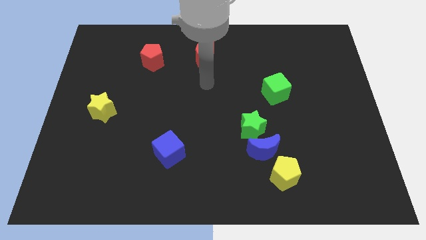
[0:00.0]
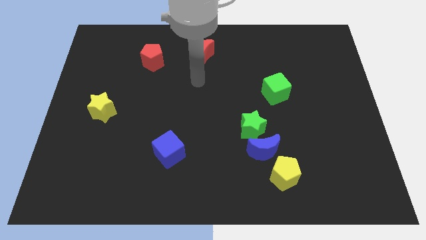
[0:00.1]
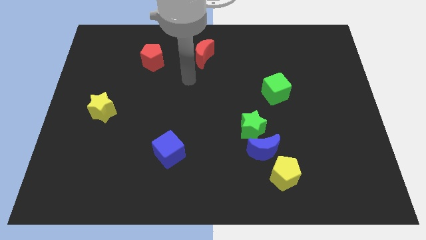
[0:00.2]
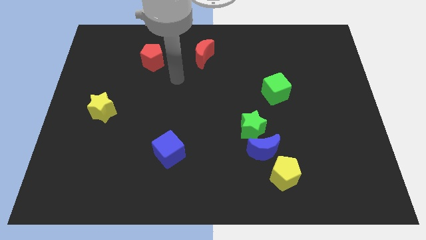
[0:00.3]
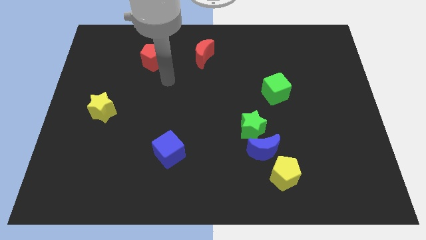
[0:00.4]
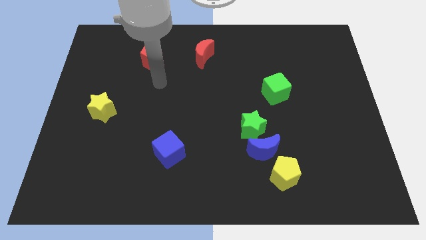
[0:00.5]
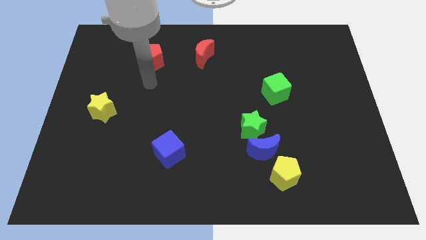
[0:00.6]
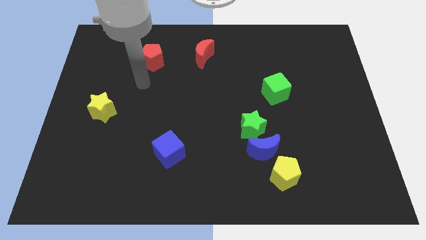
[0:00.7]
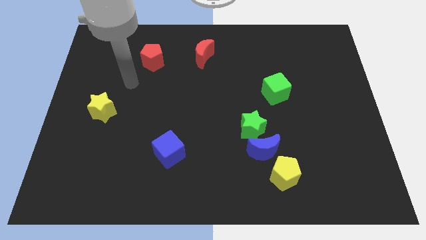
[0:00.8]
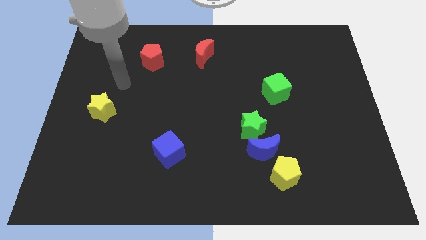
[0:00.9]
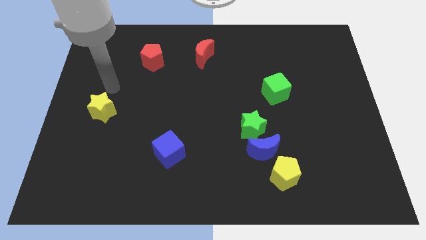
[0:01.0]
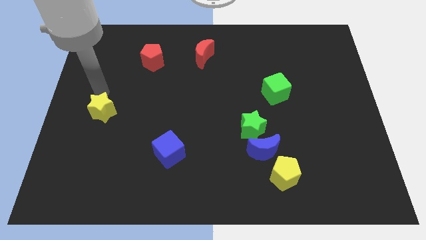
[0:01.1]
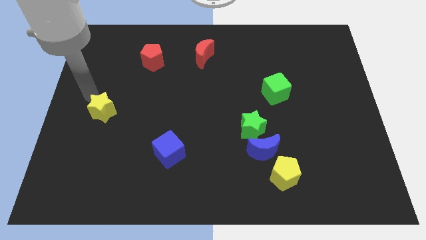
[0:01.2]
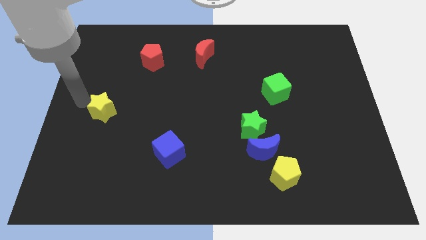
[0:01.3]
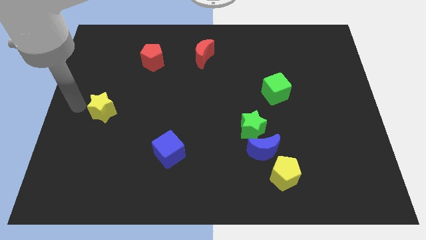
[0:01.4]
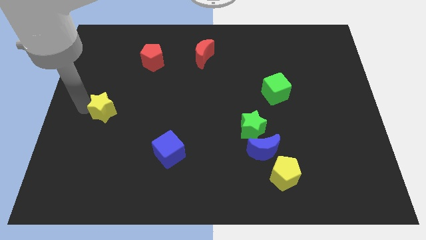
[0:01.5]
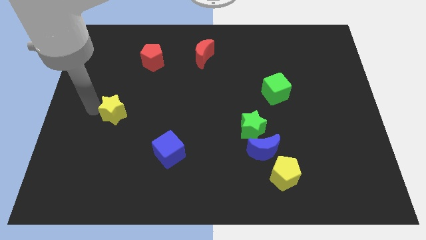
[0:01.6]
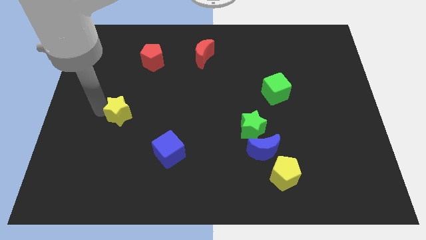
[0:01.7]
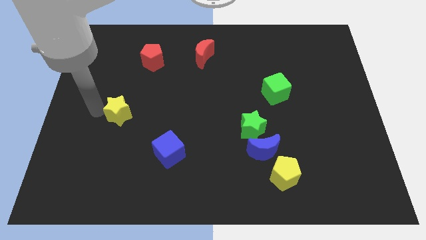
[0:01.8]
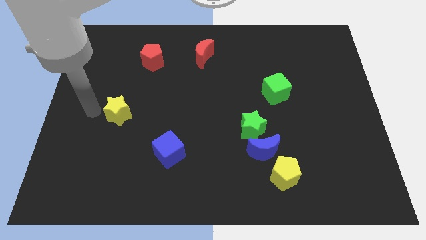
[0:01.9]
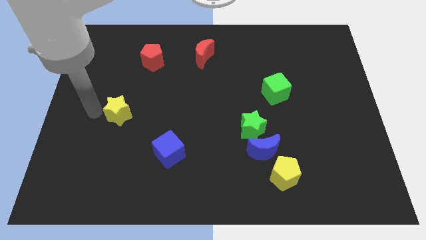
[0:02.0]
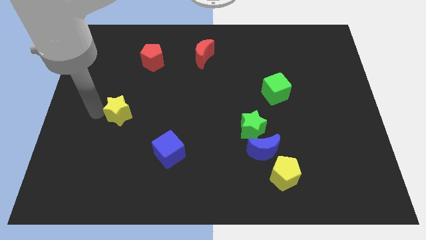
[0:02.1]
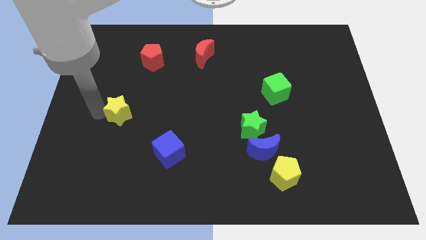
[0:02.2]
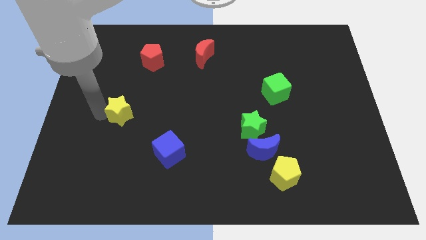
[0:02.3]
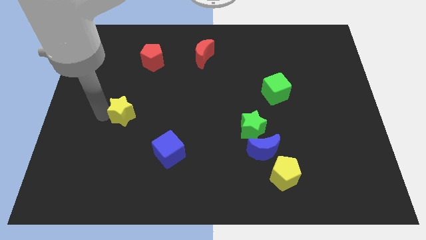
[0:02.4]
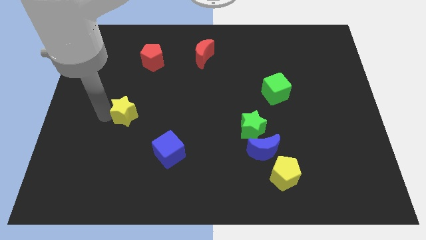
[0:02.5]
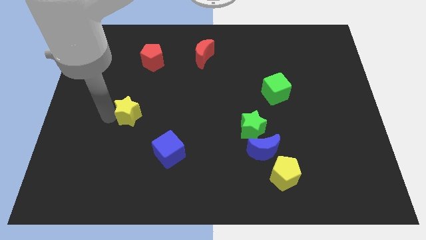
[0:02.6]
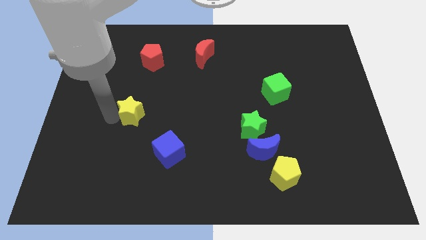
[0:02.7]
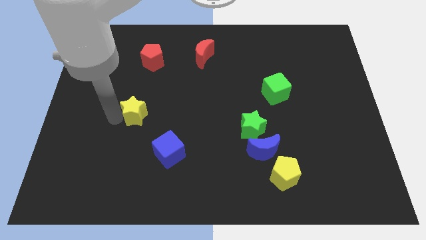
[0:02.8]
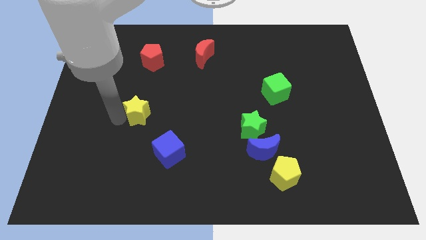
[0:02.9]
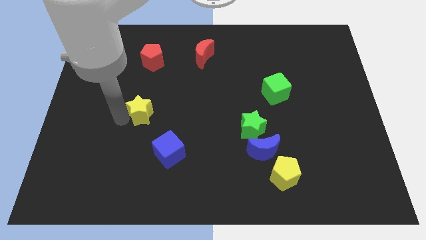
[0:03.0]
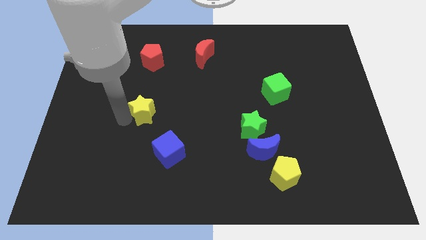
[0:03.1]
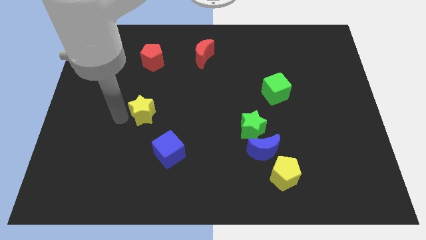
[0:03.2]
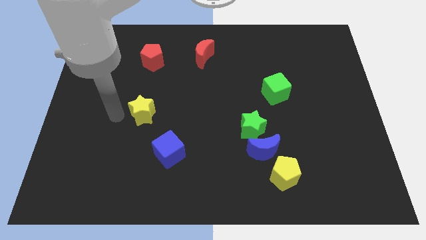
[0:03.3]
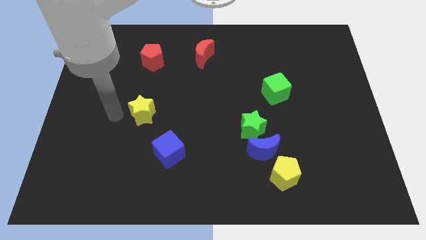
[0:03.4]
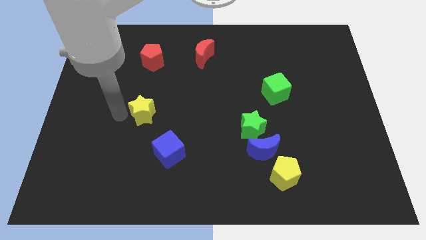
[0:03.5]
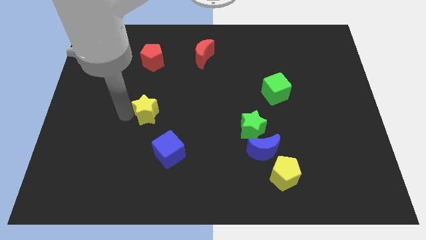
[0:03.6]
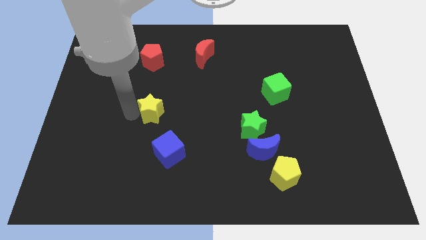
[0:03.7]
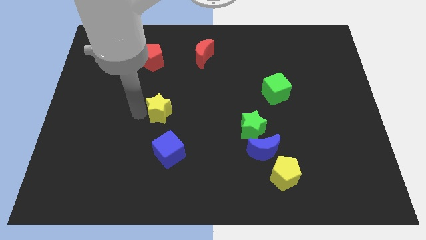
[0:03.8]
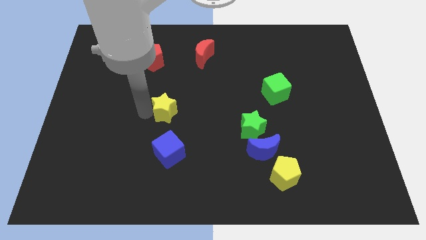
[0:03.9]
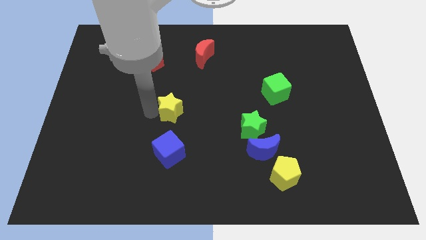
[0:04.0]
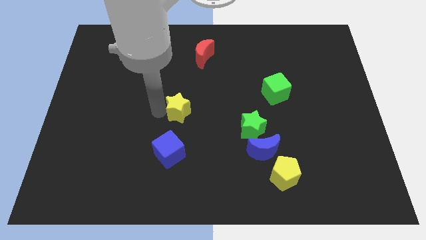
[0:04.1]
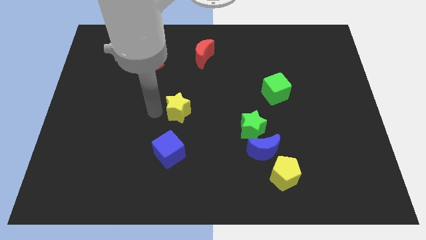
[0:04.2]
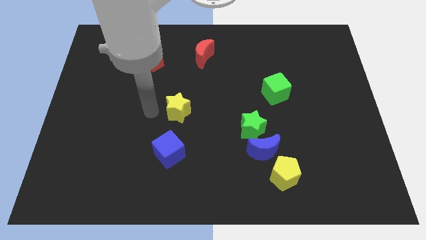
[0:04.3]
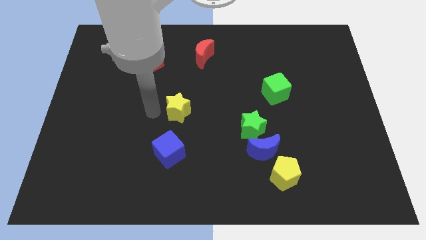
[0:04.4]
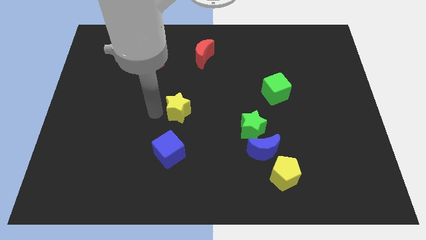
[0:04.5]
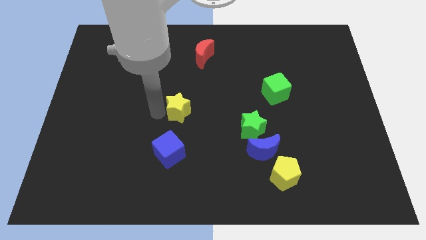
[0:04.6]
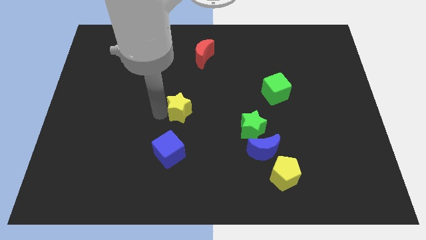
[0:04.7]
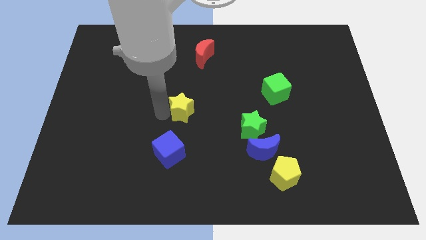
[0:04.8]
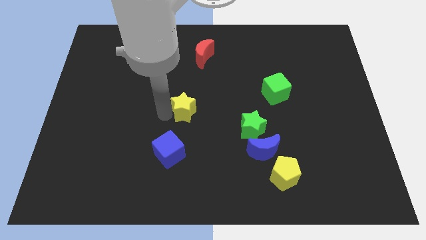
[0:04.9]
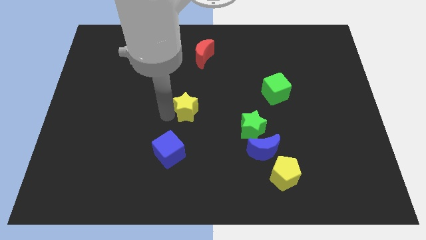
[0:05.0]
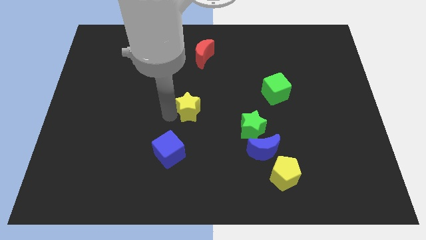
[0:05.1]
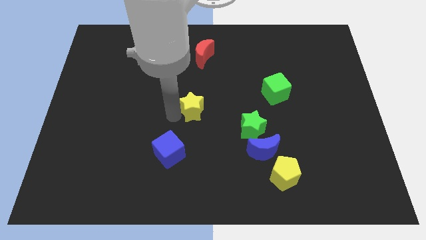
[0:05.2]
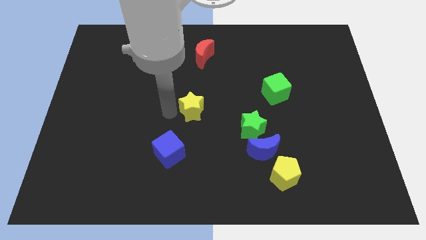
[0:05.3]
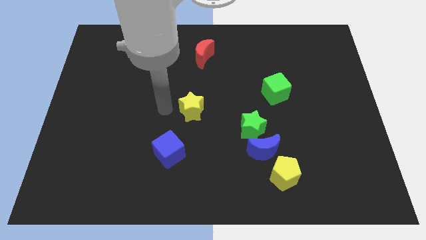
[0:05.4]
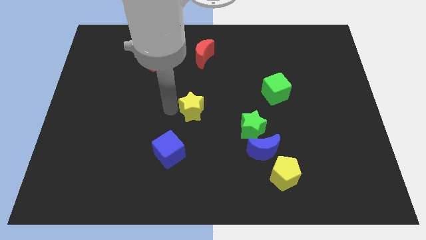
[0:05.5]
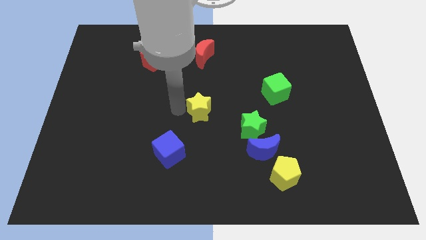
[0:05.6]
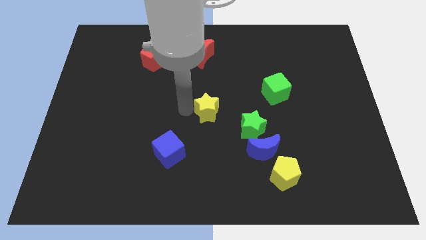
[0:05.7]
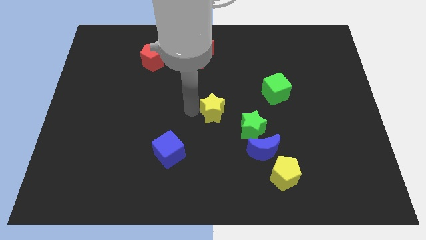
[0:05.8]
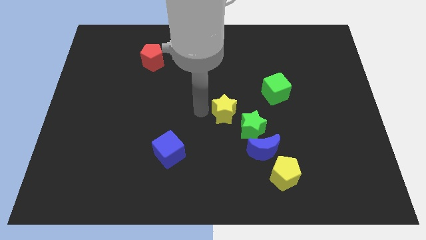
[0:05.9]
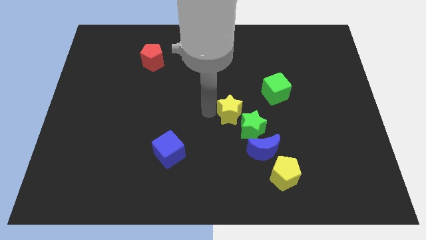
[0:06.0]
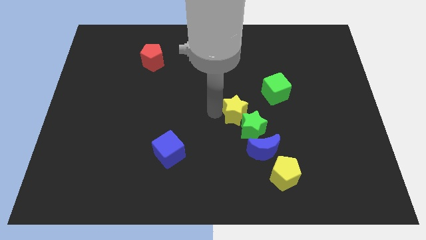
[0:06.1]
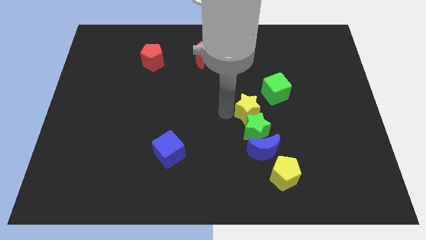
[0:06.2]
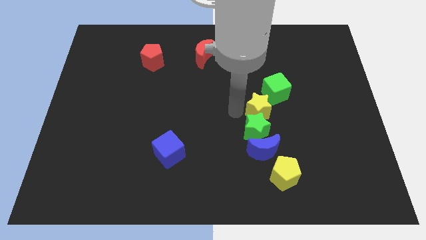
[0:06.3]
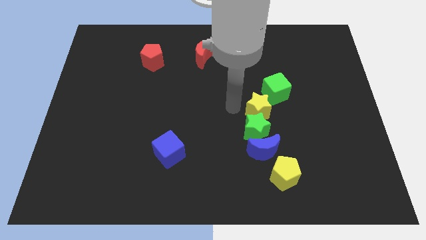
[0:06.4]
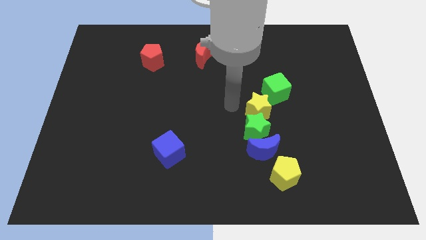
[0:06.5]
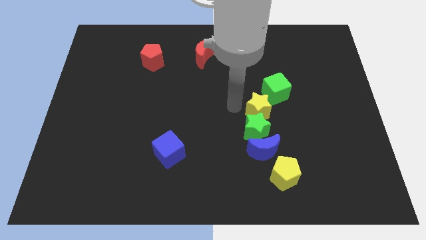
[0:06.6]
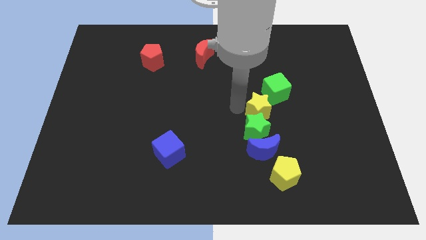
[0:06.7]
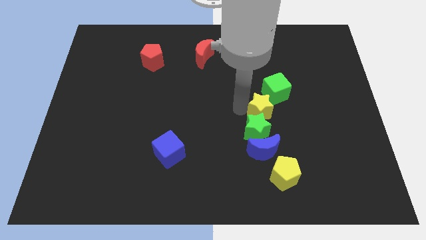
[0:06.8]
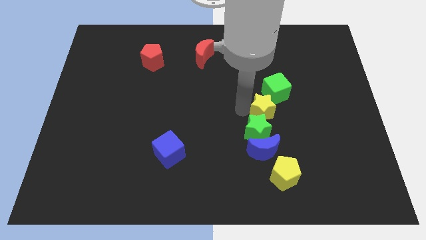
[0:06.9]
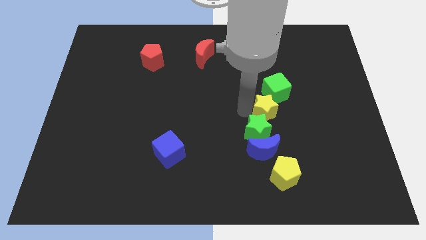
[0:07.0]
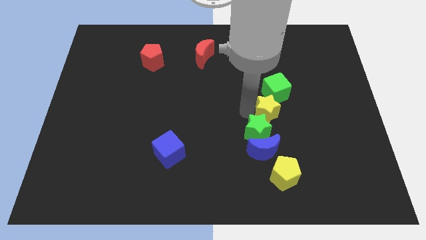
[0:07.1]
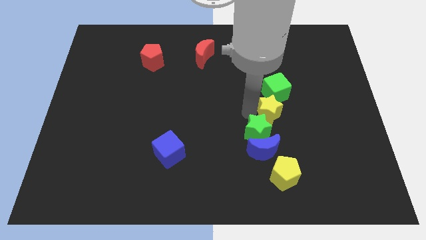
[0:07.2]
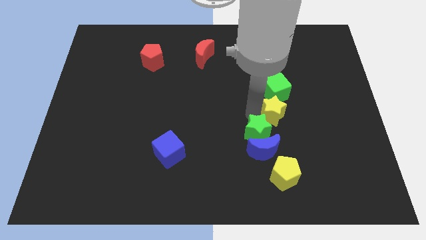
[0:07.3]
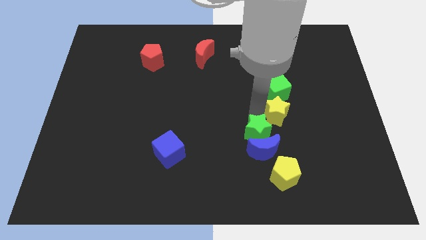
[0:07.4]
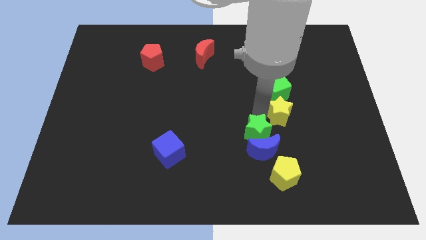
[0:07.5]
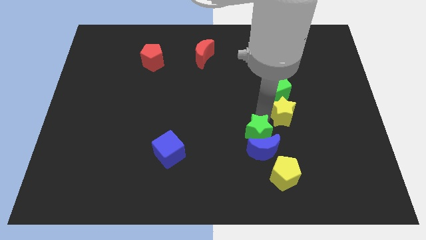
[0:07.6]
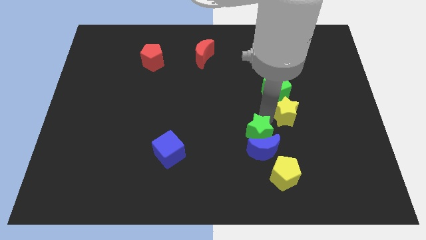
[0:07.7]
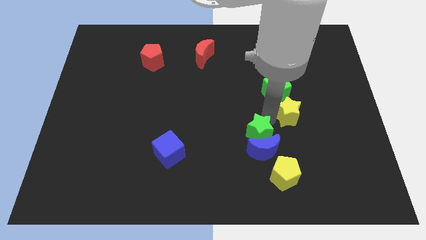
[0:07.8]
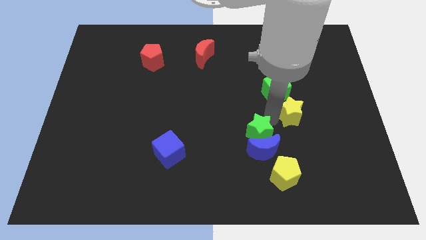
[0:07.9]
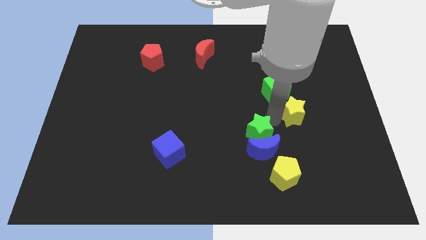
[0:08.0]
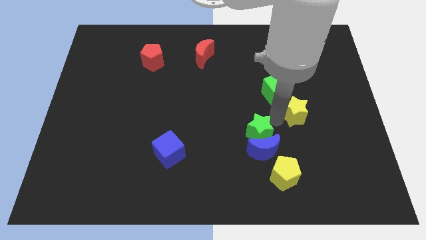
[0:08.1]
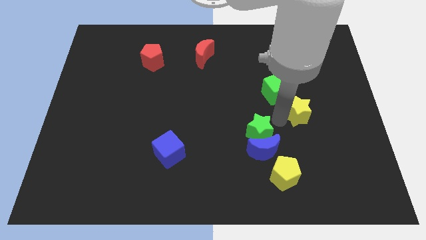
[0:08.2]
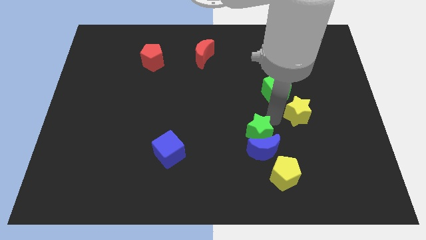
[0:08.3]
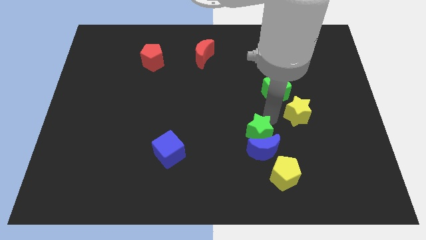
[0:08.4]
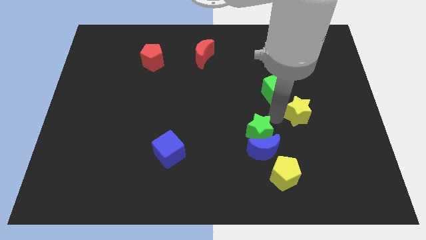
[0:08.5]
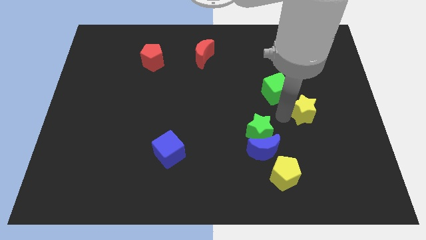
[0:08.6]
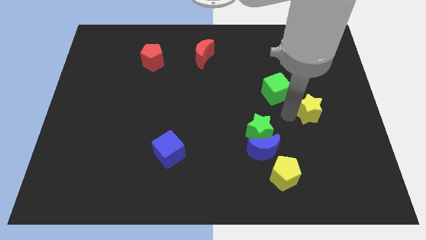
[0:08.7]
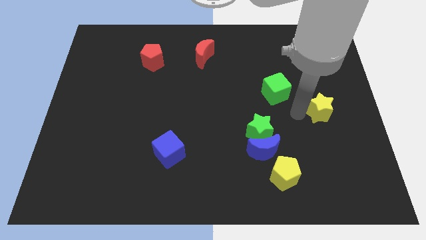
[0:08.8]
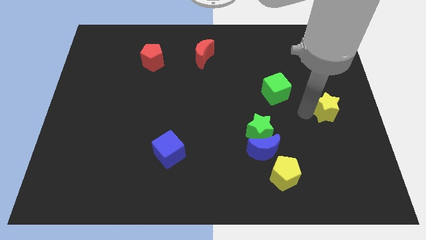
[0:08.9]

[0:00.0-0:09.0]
slide the yellow star to the center right
